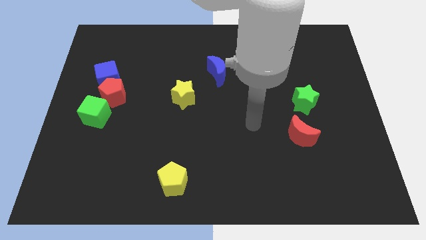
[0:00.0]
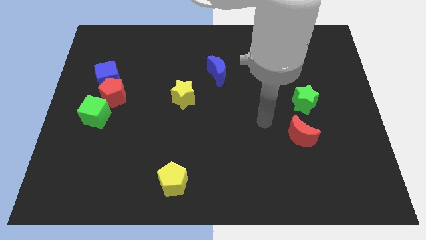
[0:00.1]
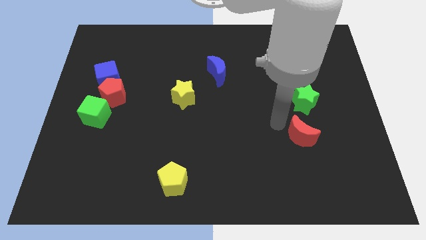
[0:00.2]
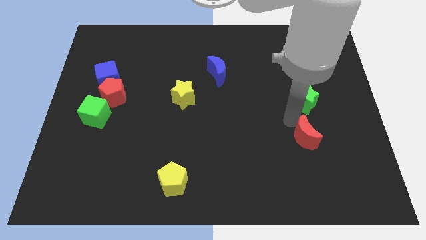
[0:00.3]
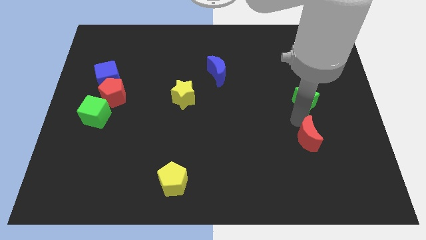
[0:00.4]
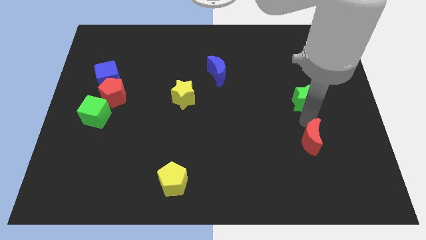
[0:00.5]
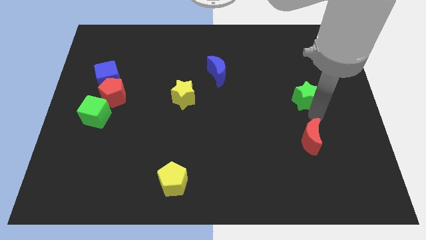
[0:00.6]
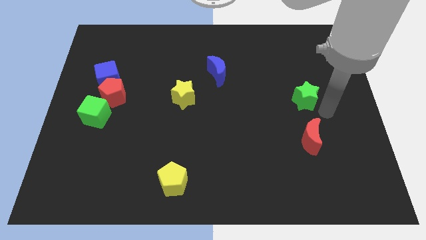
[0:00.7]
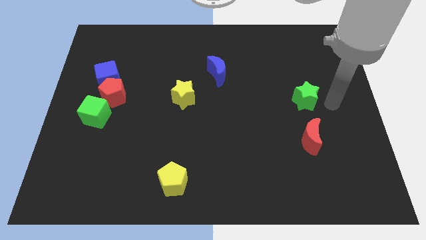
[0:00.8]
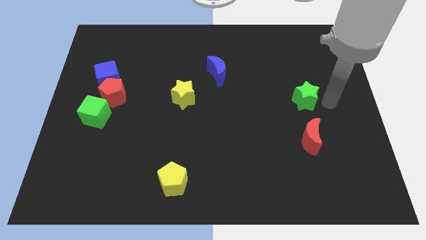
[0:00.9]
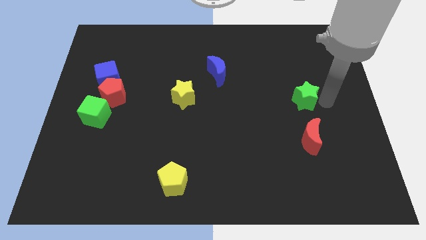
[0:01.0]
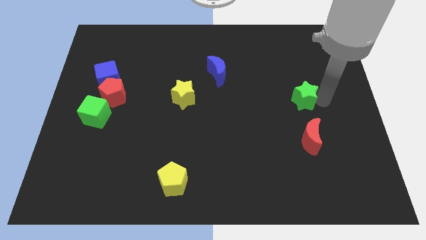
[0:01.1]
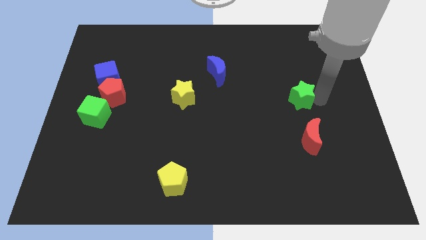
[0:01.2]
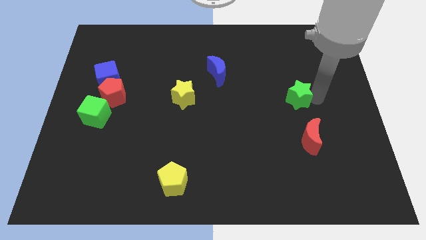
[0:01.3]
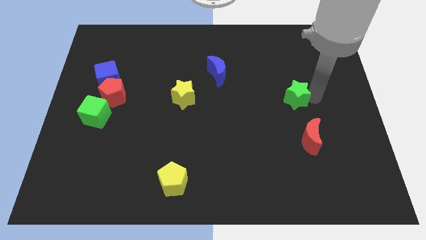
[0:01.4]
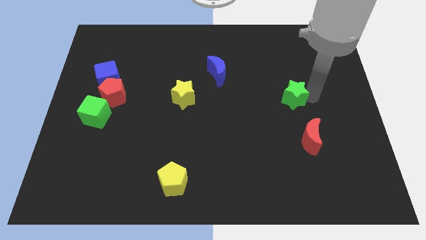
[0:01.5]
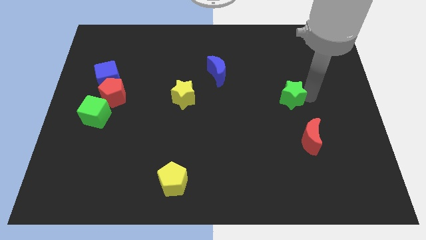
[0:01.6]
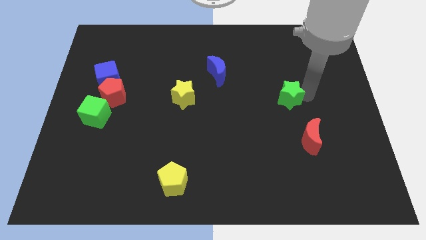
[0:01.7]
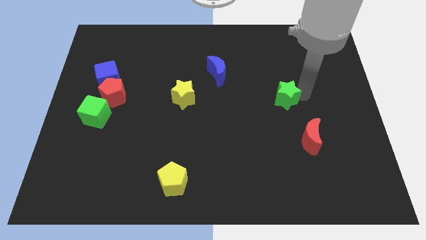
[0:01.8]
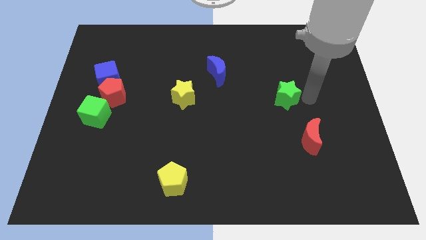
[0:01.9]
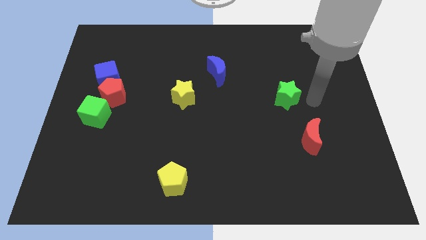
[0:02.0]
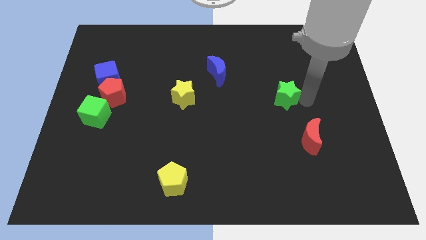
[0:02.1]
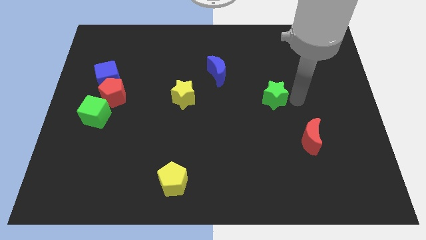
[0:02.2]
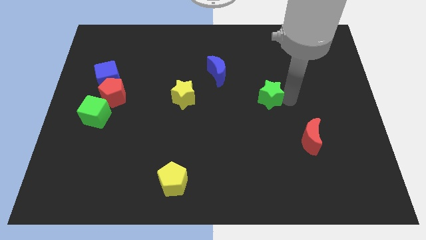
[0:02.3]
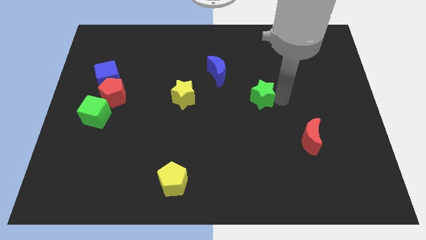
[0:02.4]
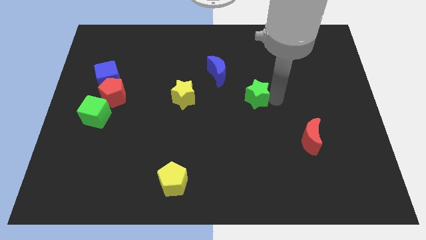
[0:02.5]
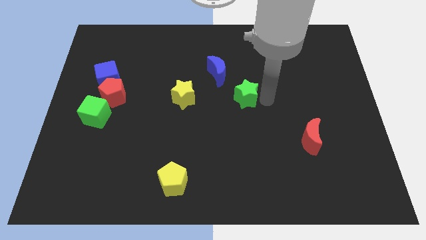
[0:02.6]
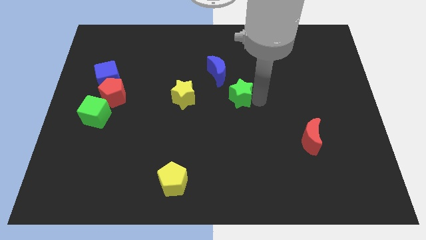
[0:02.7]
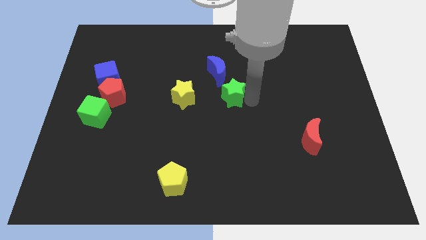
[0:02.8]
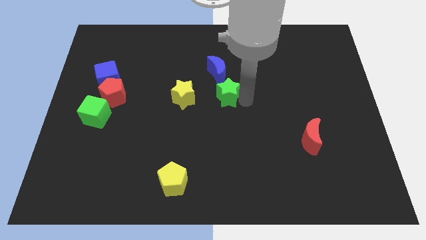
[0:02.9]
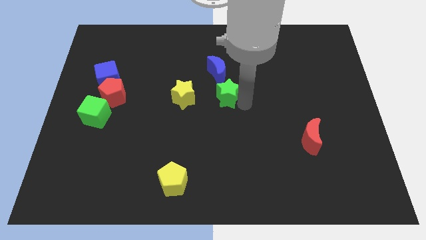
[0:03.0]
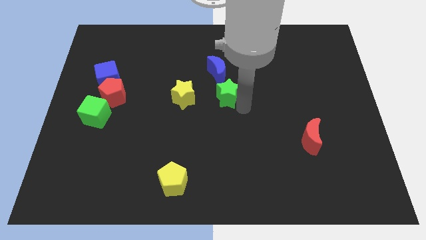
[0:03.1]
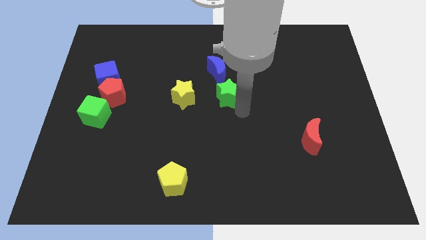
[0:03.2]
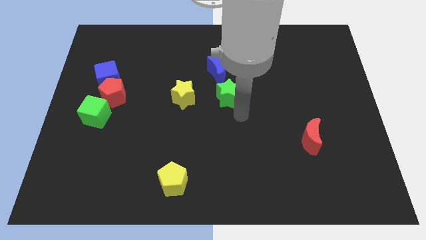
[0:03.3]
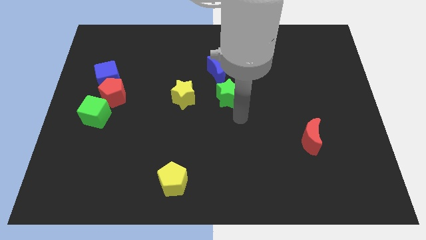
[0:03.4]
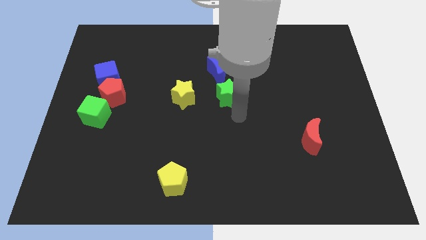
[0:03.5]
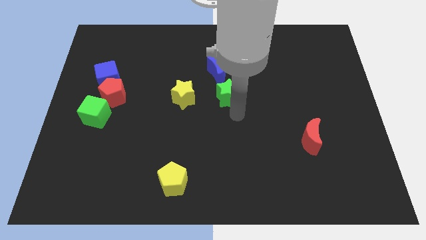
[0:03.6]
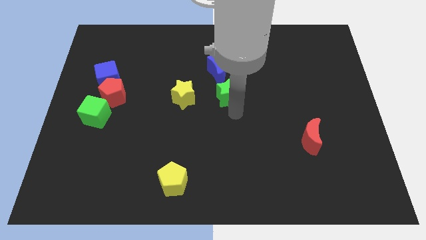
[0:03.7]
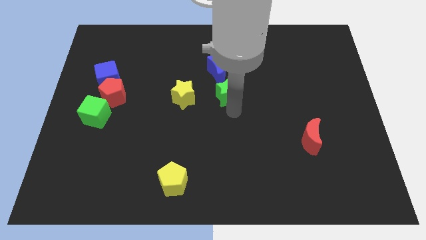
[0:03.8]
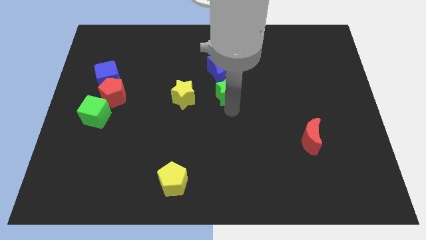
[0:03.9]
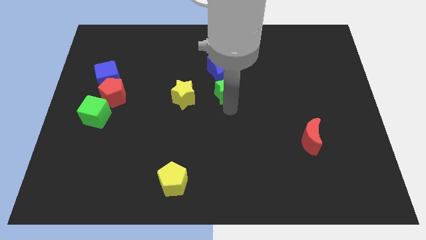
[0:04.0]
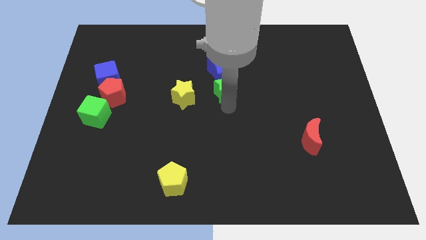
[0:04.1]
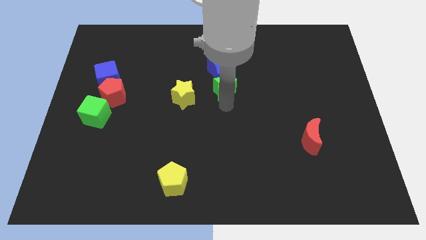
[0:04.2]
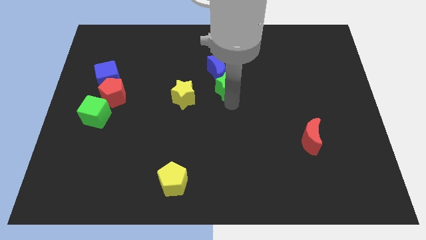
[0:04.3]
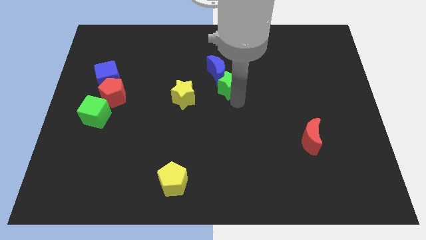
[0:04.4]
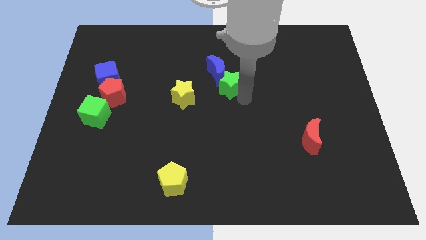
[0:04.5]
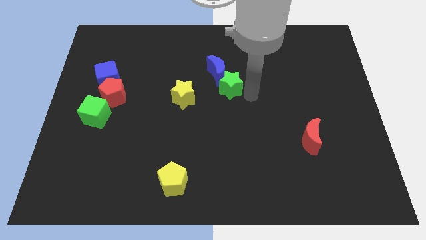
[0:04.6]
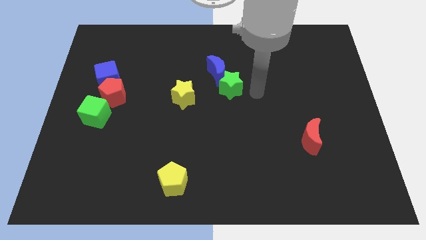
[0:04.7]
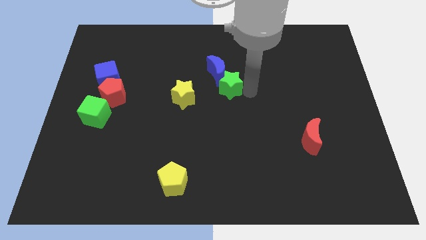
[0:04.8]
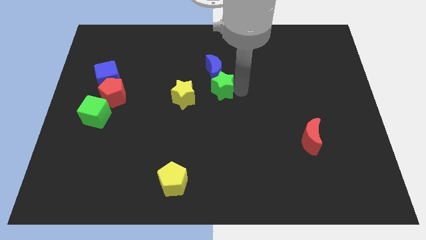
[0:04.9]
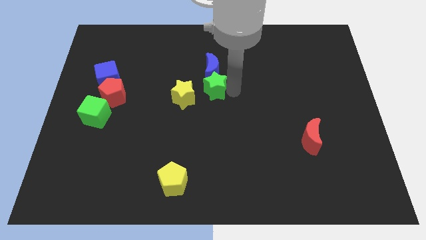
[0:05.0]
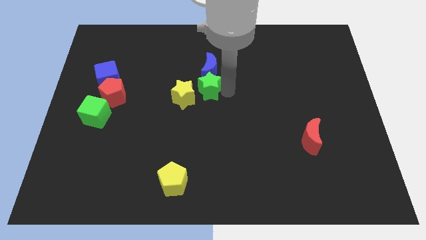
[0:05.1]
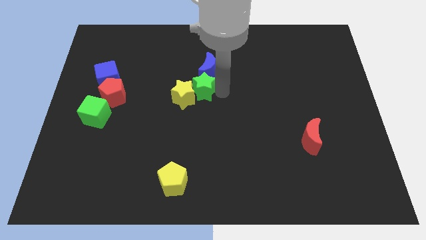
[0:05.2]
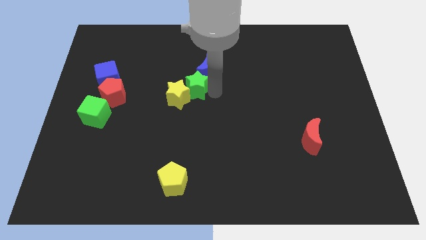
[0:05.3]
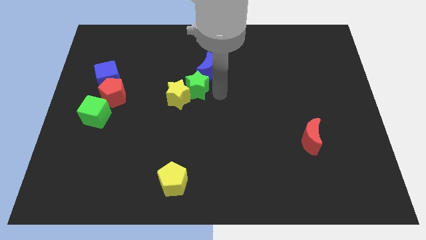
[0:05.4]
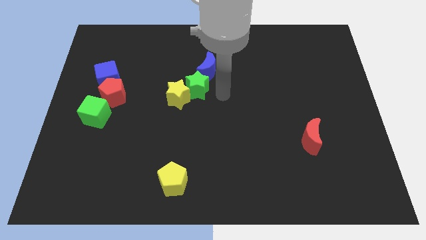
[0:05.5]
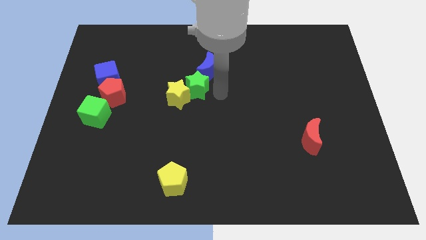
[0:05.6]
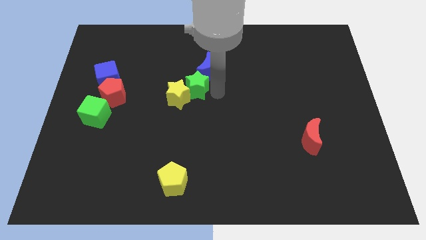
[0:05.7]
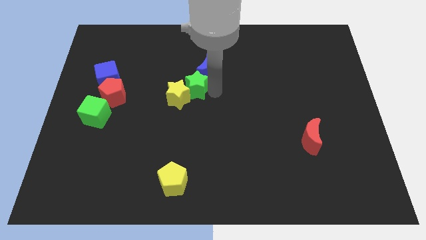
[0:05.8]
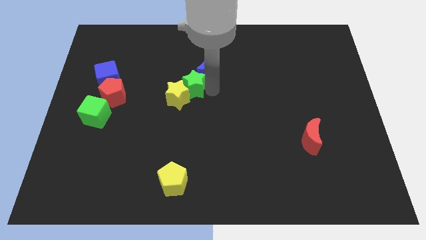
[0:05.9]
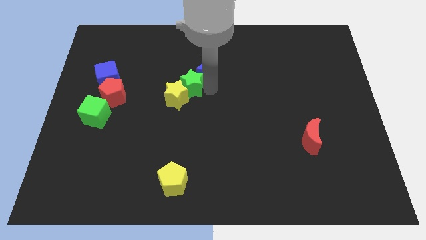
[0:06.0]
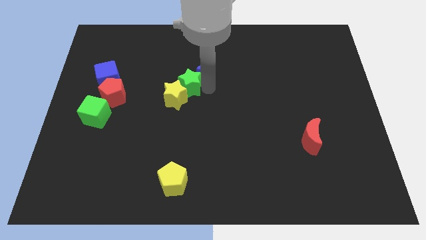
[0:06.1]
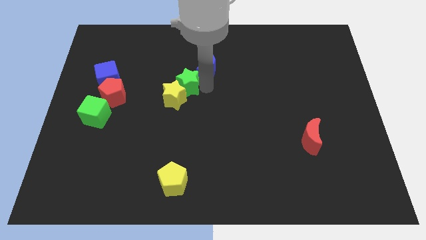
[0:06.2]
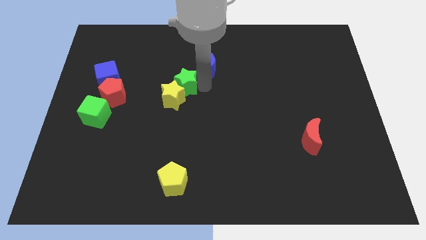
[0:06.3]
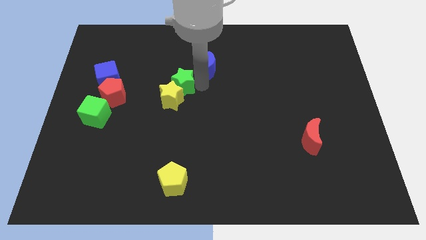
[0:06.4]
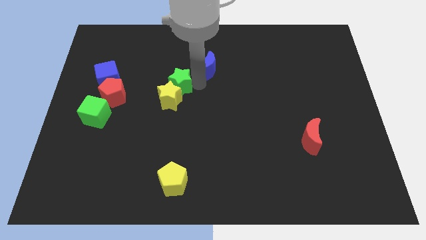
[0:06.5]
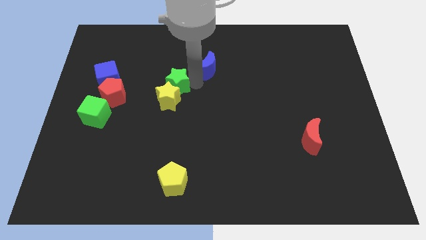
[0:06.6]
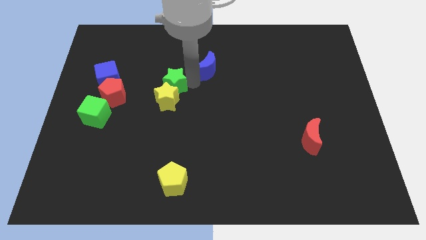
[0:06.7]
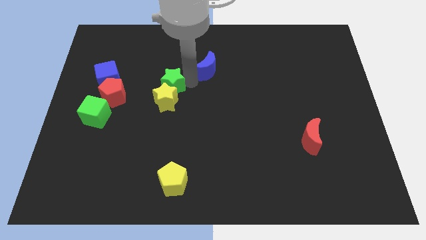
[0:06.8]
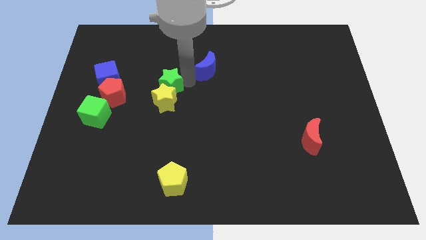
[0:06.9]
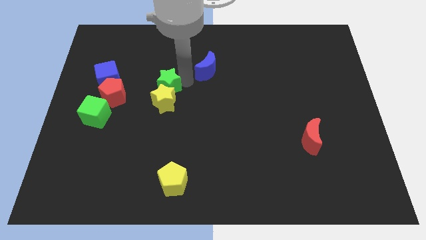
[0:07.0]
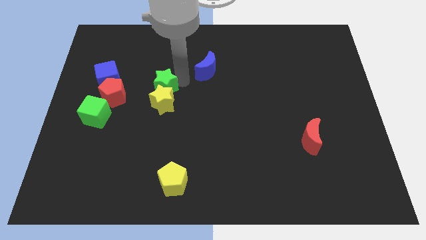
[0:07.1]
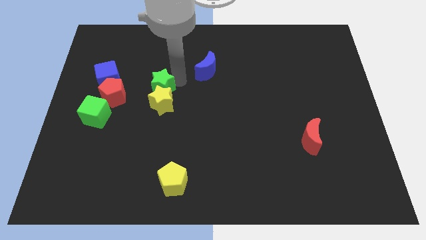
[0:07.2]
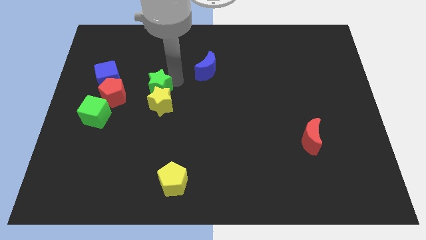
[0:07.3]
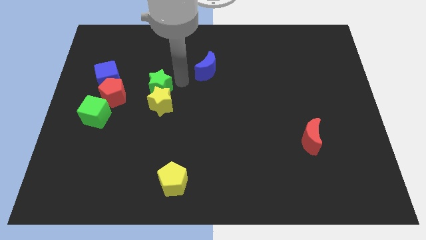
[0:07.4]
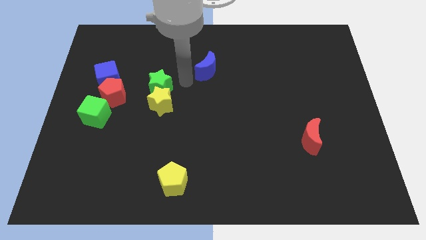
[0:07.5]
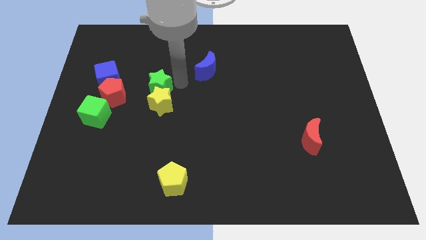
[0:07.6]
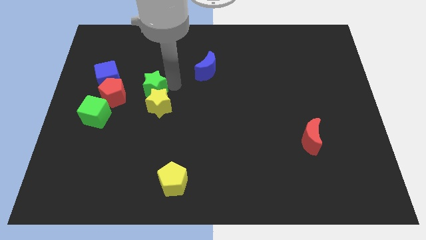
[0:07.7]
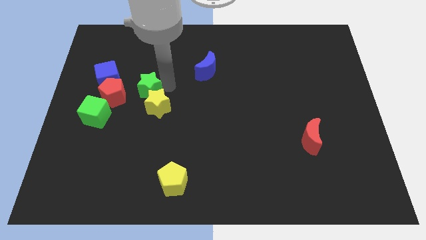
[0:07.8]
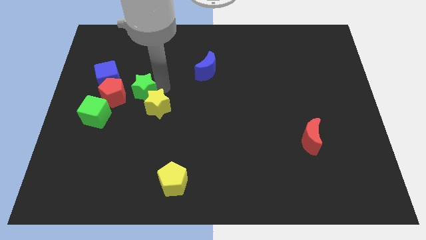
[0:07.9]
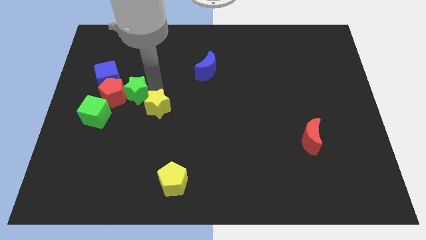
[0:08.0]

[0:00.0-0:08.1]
put the green star to the red pentagon
